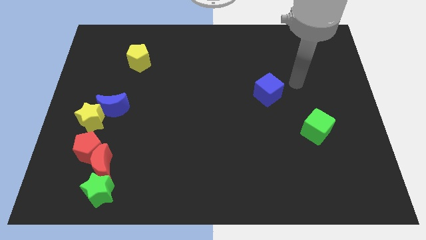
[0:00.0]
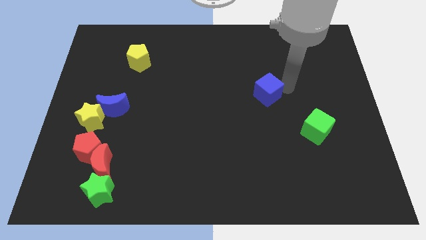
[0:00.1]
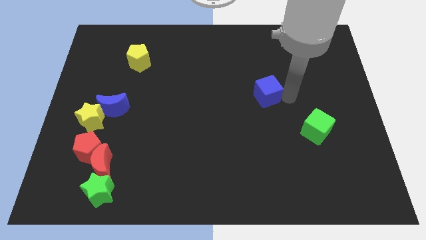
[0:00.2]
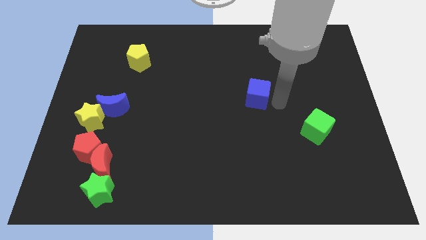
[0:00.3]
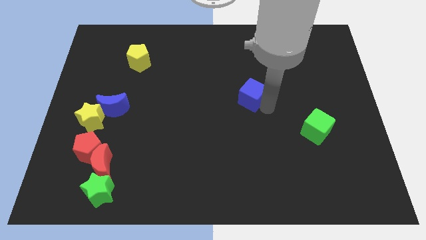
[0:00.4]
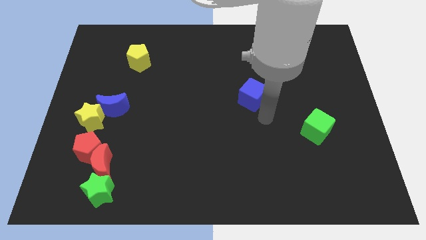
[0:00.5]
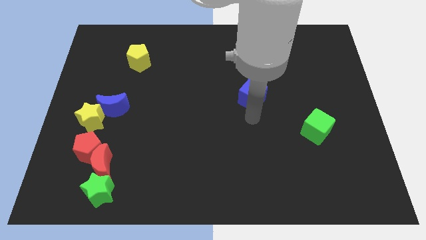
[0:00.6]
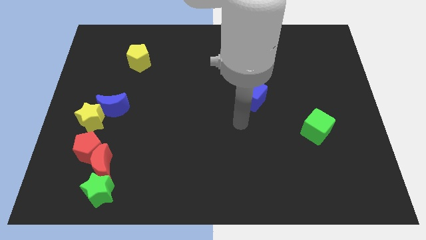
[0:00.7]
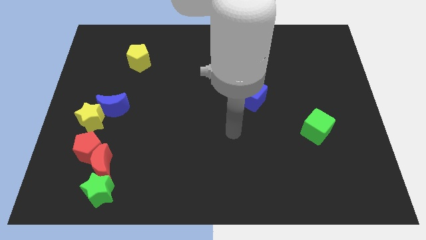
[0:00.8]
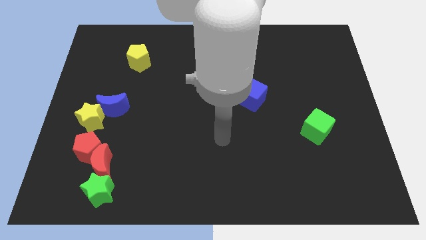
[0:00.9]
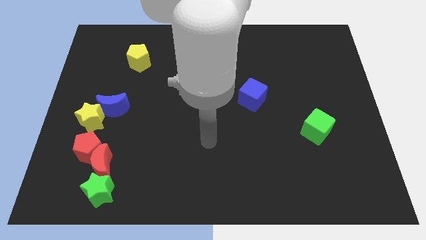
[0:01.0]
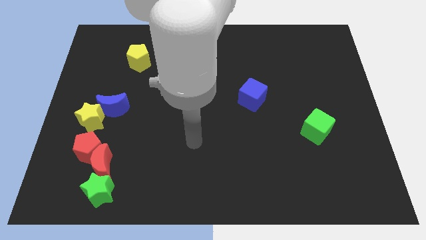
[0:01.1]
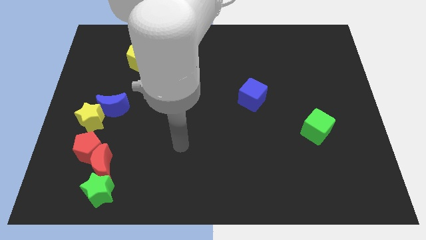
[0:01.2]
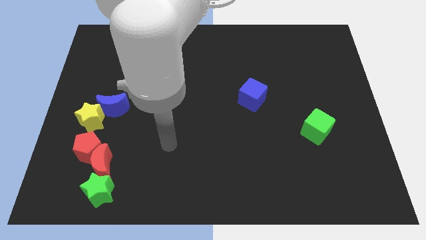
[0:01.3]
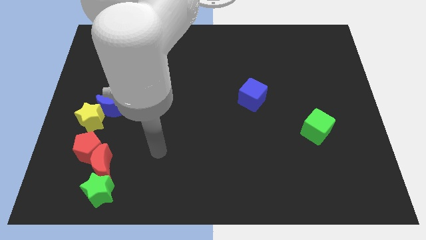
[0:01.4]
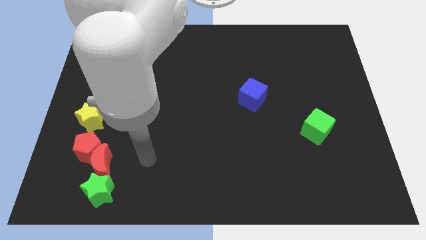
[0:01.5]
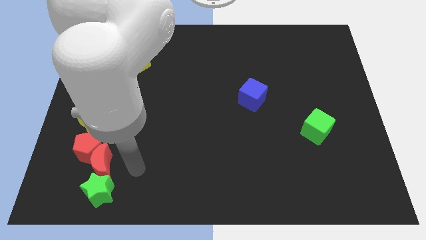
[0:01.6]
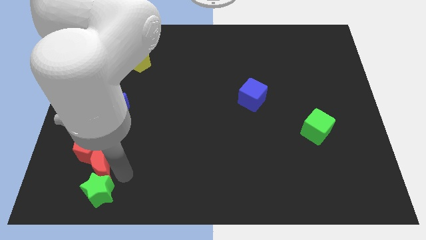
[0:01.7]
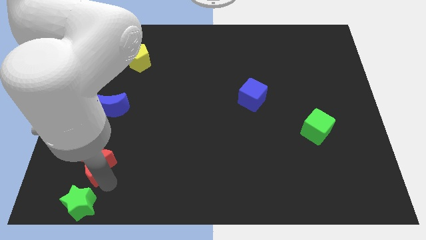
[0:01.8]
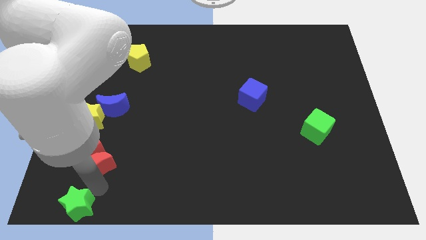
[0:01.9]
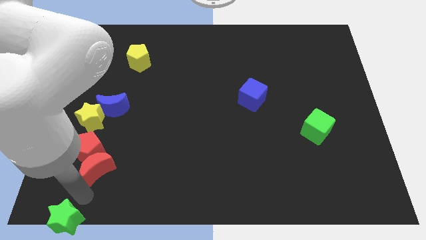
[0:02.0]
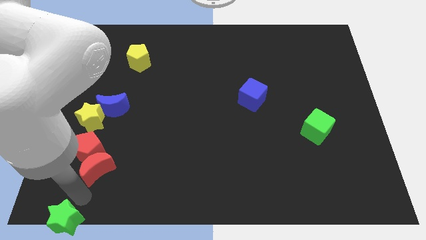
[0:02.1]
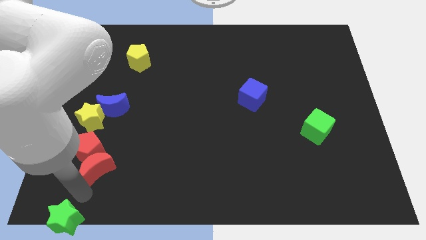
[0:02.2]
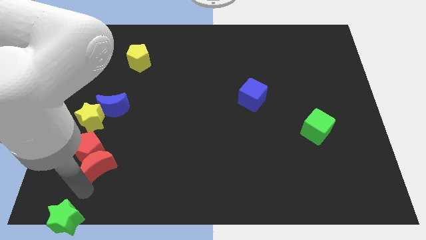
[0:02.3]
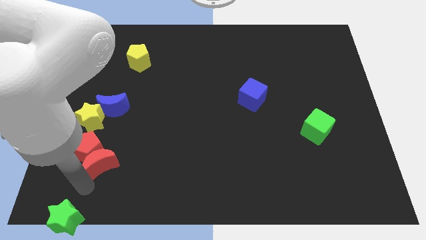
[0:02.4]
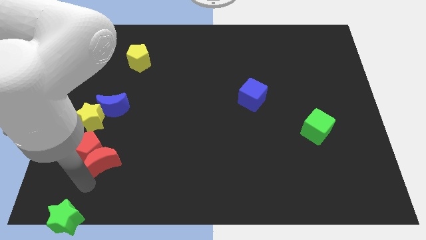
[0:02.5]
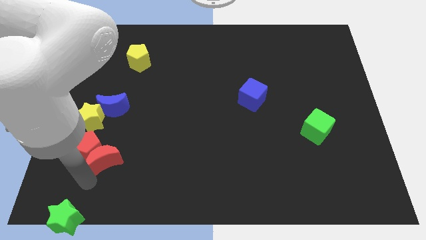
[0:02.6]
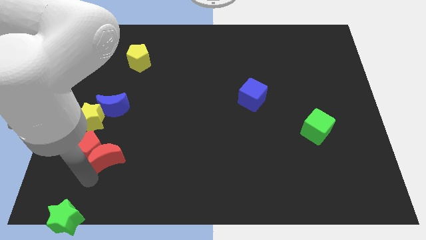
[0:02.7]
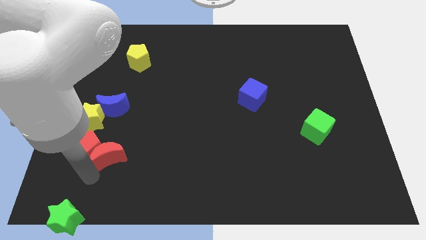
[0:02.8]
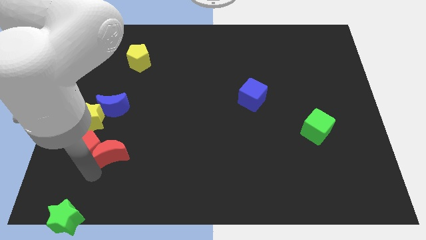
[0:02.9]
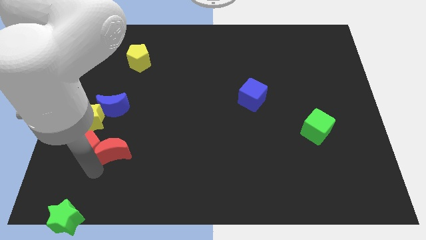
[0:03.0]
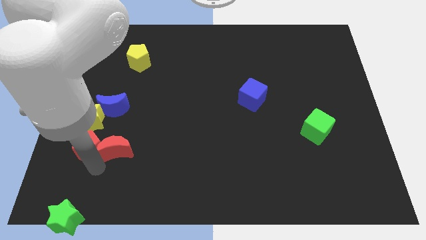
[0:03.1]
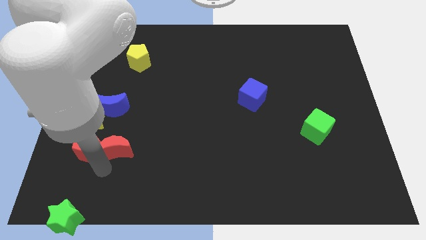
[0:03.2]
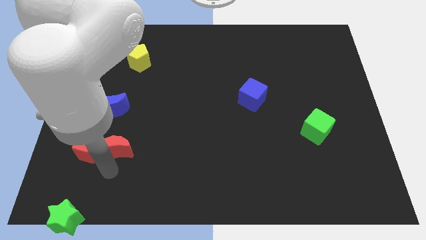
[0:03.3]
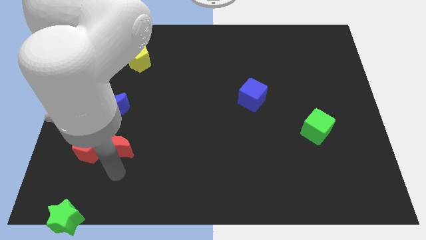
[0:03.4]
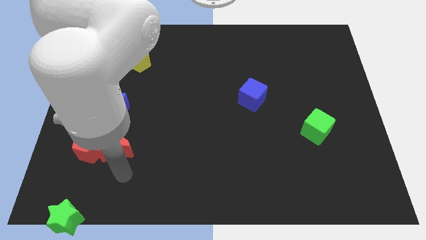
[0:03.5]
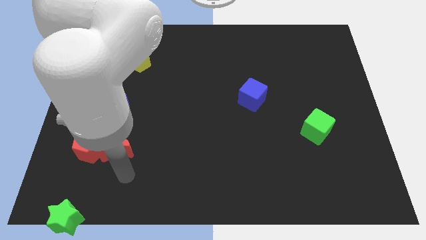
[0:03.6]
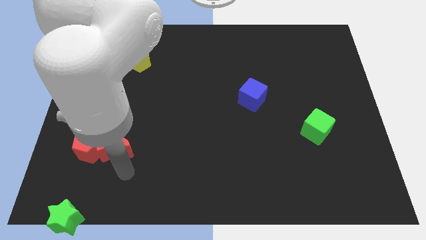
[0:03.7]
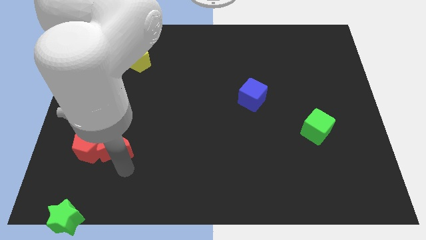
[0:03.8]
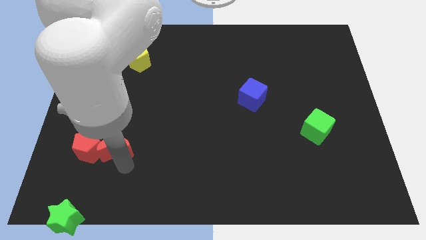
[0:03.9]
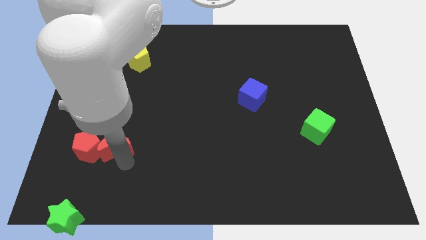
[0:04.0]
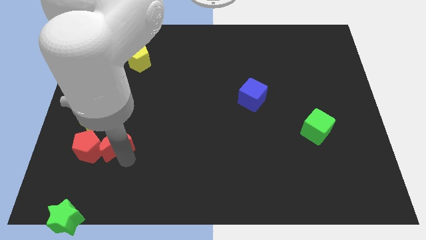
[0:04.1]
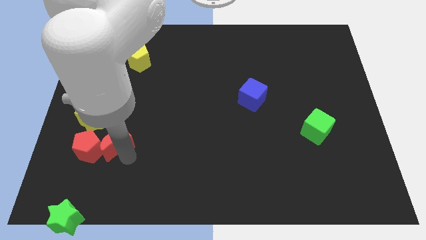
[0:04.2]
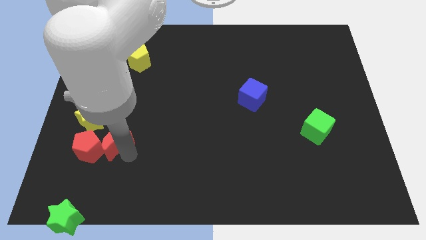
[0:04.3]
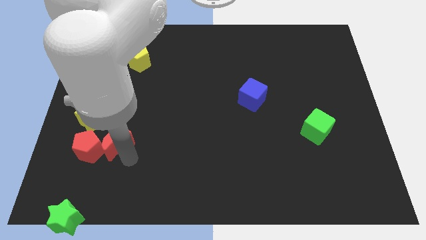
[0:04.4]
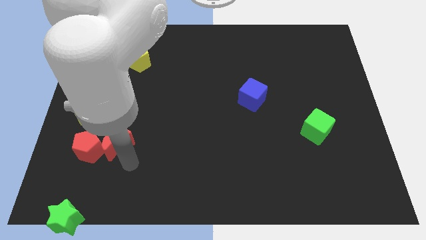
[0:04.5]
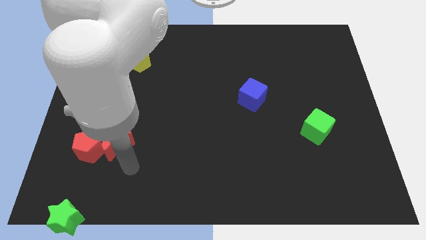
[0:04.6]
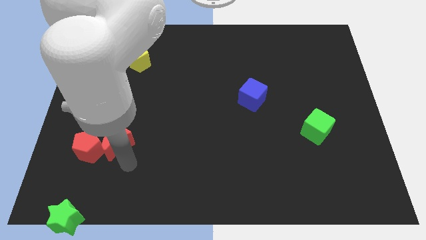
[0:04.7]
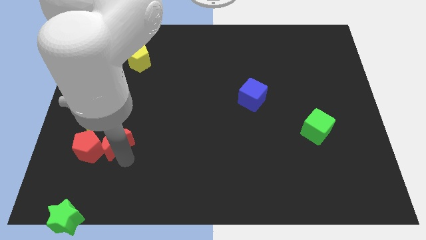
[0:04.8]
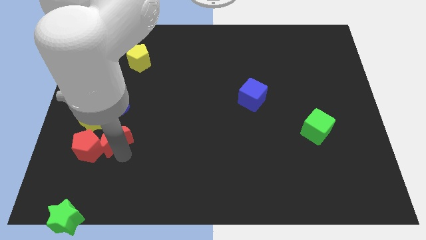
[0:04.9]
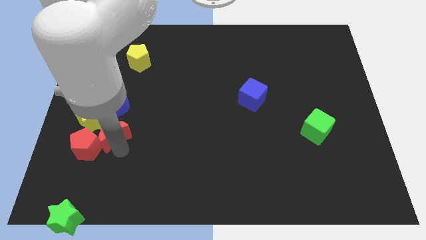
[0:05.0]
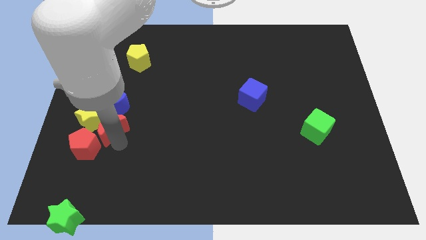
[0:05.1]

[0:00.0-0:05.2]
push the red moon towards the yellow star

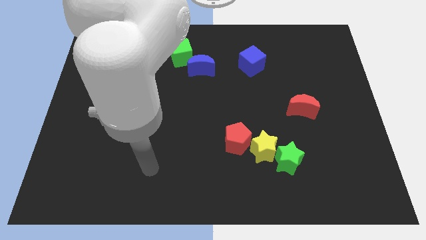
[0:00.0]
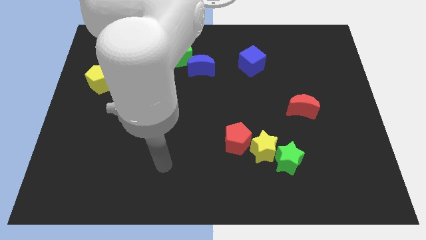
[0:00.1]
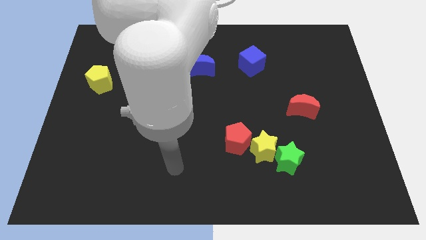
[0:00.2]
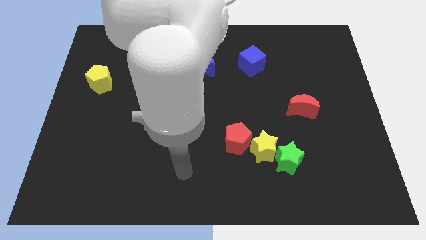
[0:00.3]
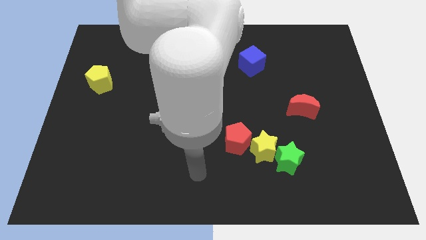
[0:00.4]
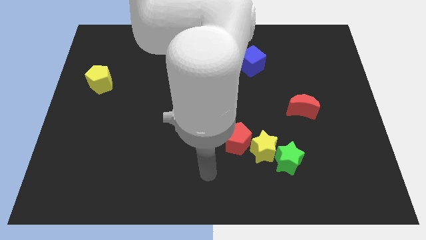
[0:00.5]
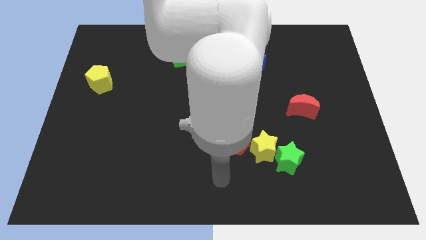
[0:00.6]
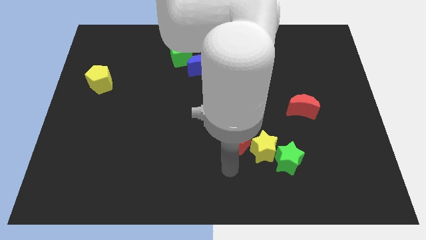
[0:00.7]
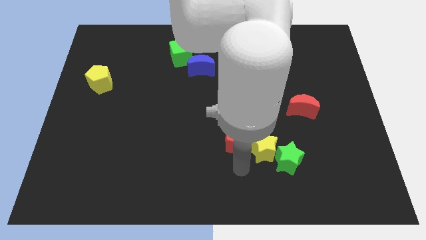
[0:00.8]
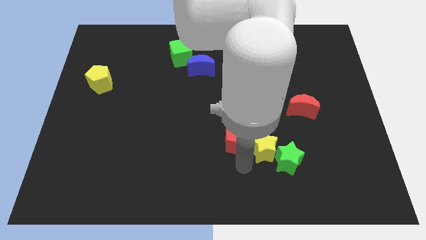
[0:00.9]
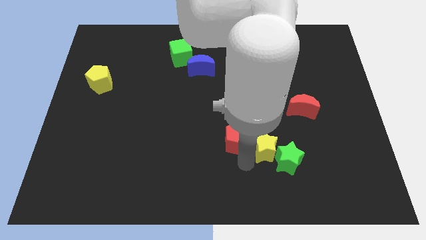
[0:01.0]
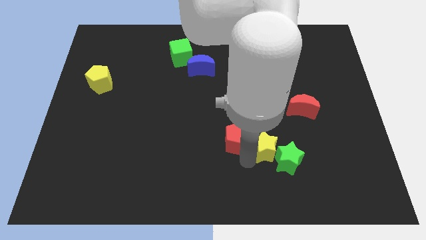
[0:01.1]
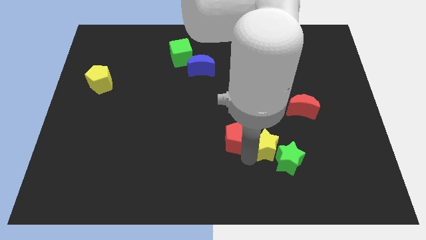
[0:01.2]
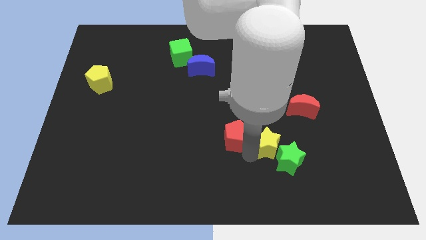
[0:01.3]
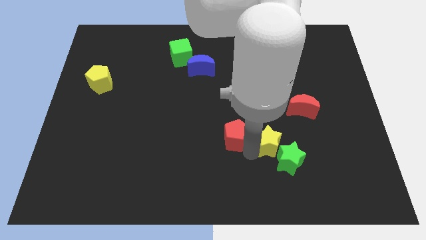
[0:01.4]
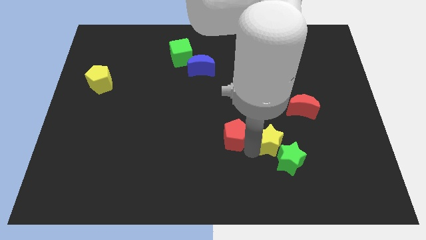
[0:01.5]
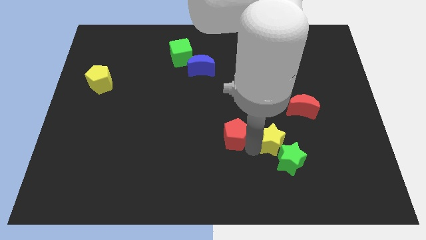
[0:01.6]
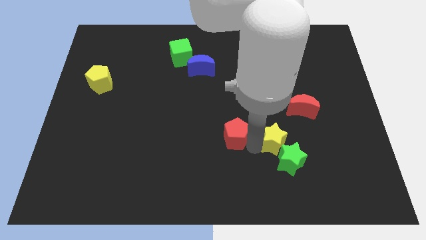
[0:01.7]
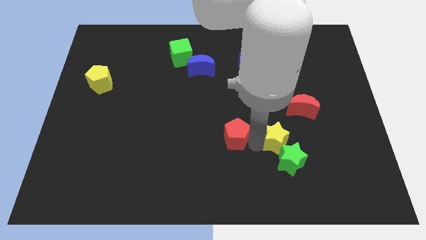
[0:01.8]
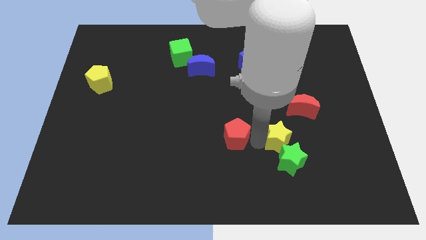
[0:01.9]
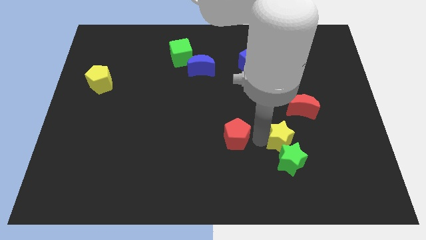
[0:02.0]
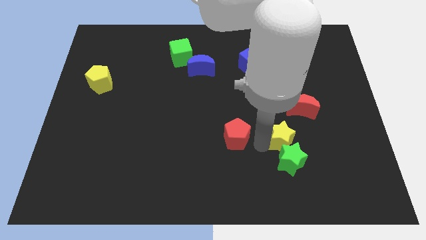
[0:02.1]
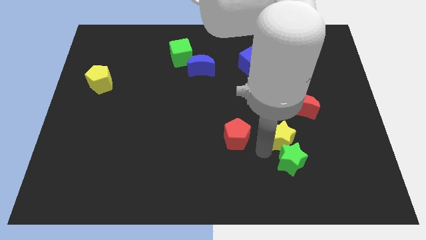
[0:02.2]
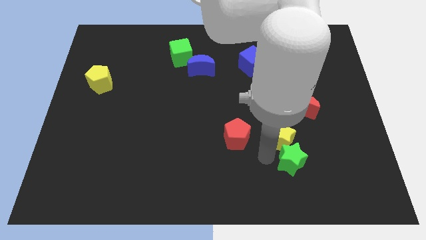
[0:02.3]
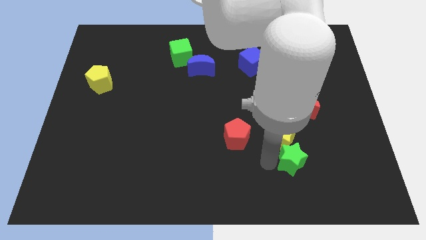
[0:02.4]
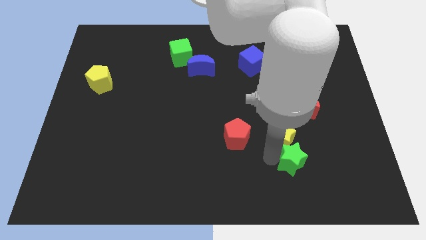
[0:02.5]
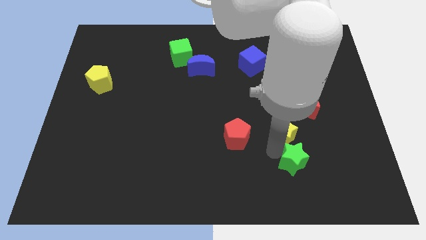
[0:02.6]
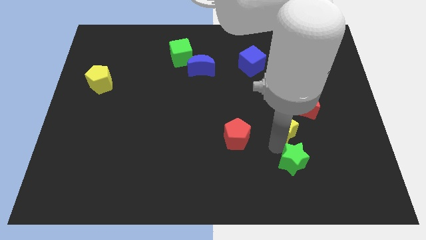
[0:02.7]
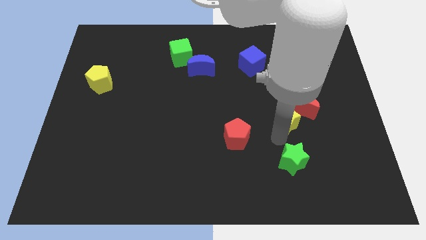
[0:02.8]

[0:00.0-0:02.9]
slide the yellow star next to the red moon
